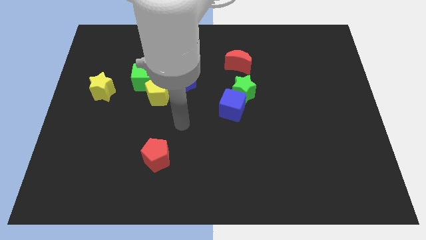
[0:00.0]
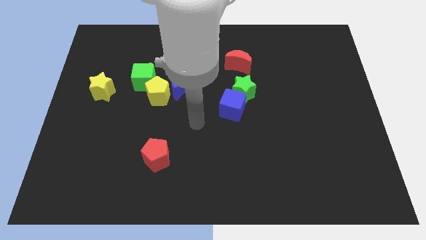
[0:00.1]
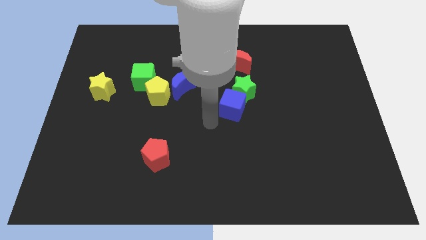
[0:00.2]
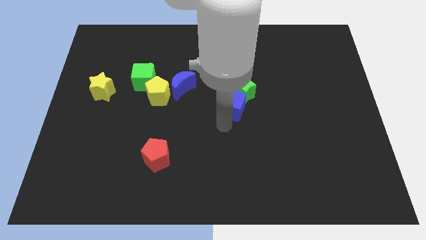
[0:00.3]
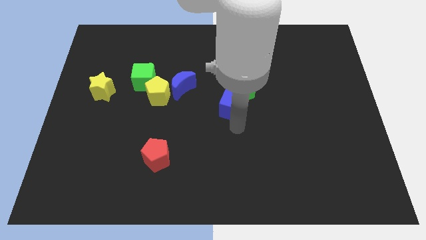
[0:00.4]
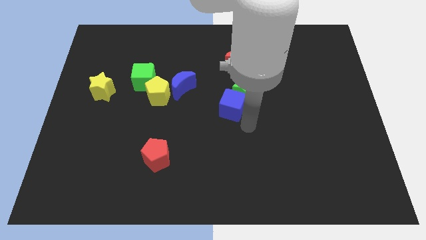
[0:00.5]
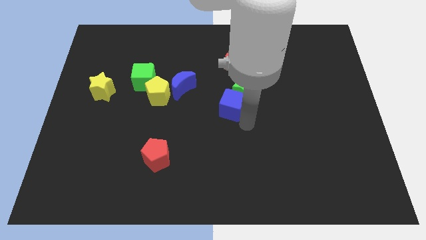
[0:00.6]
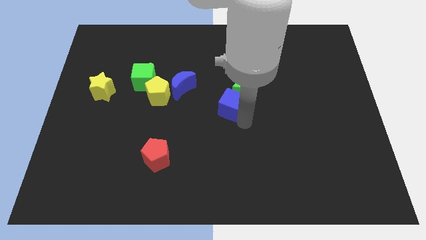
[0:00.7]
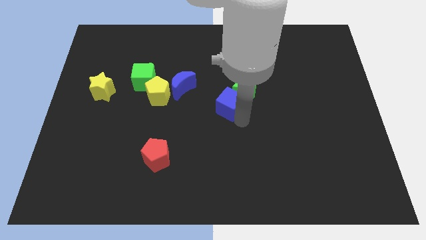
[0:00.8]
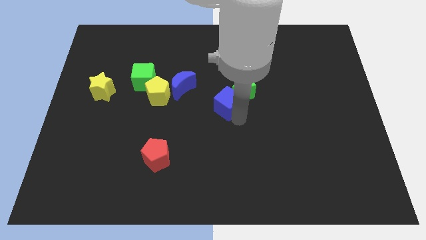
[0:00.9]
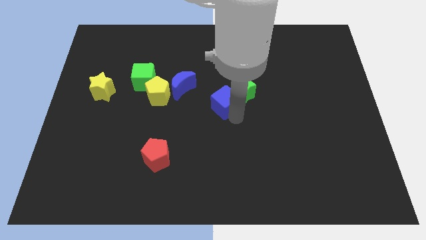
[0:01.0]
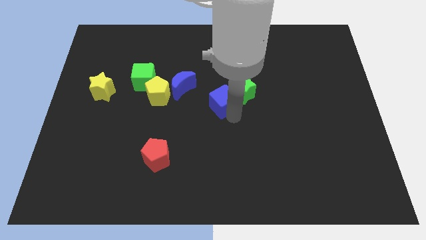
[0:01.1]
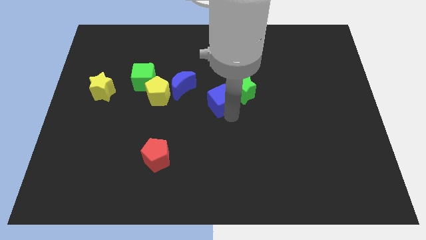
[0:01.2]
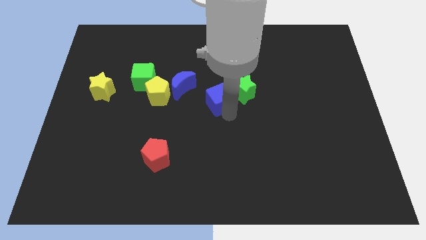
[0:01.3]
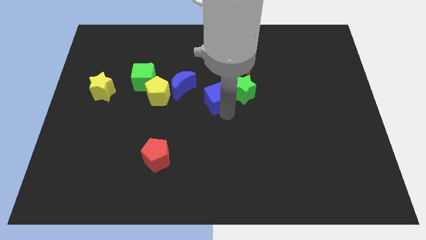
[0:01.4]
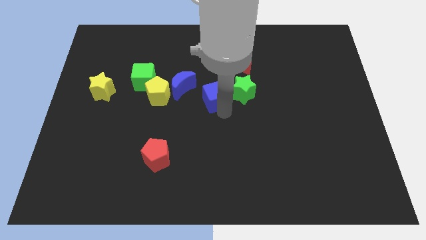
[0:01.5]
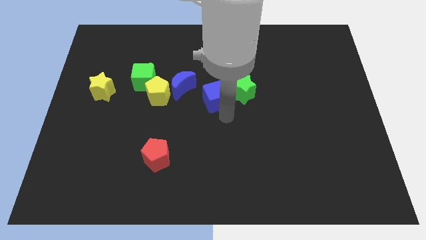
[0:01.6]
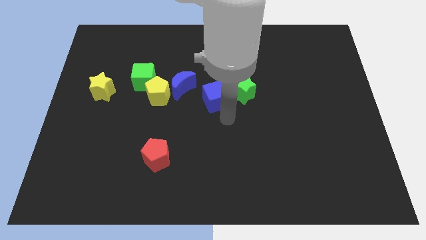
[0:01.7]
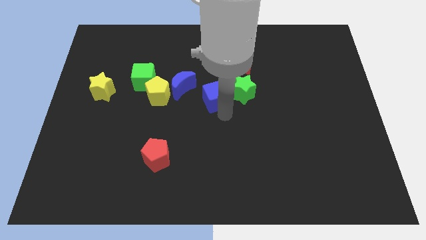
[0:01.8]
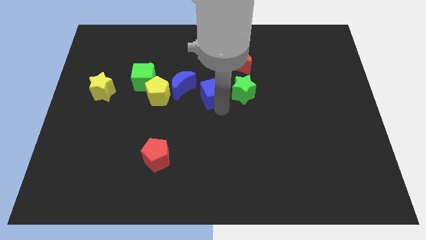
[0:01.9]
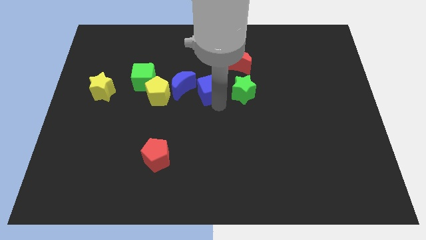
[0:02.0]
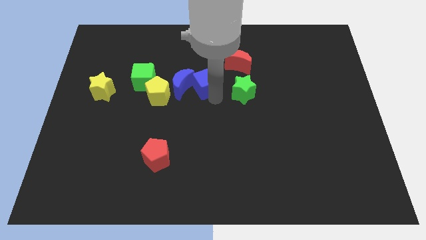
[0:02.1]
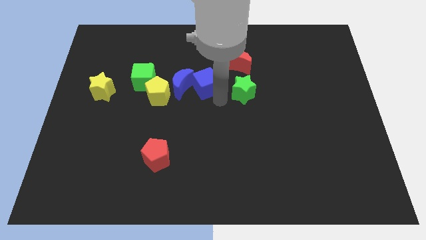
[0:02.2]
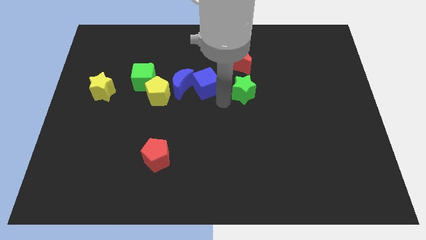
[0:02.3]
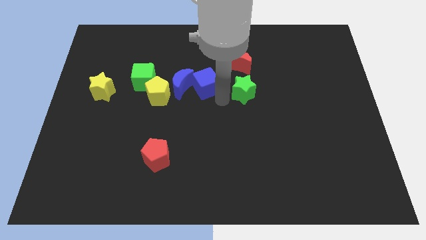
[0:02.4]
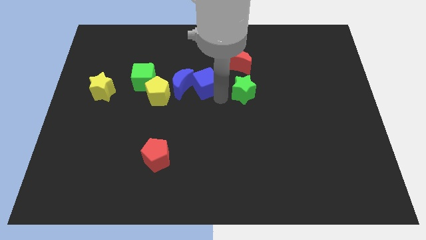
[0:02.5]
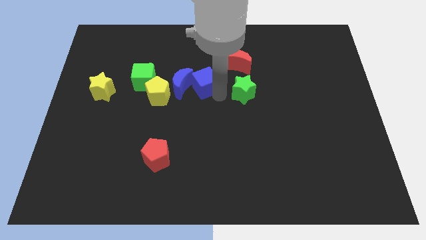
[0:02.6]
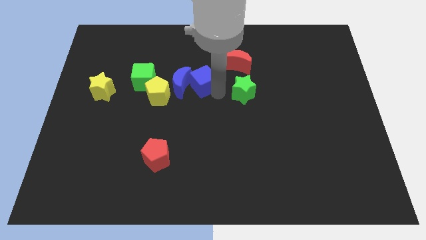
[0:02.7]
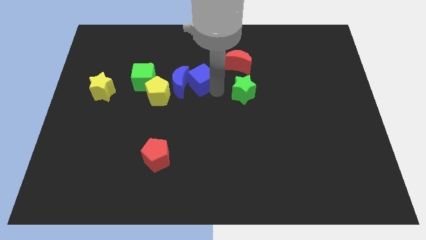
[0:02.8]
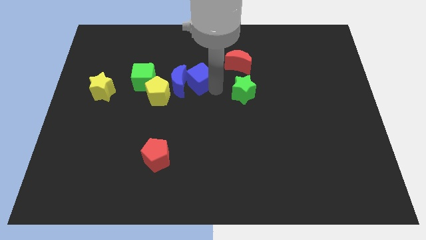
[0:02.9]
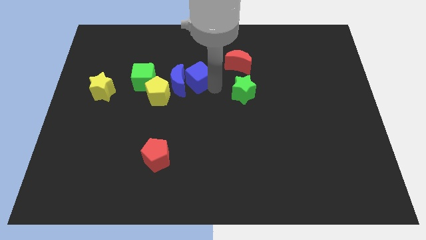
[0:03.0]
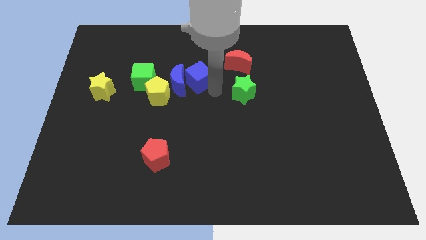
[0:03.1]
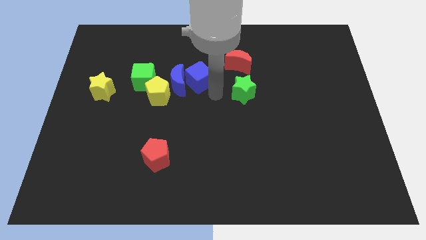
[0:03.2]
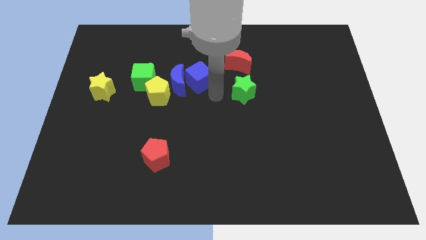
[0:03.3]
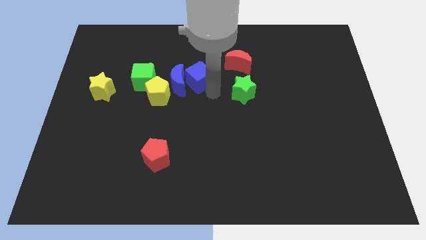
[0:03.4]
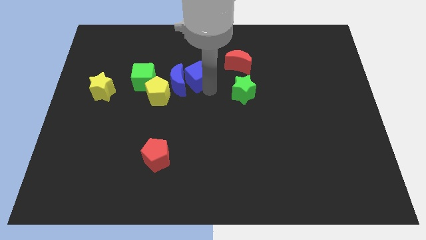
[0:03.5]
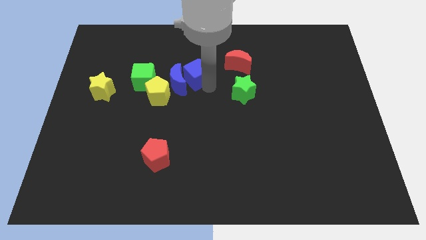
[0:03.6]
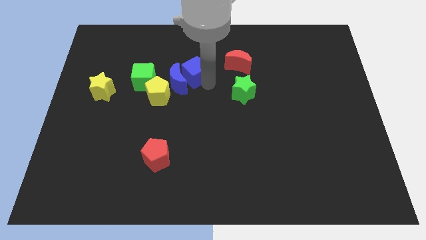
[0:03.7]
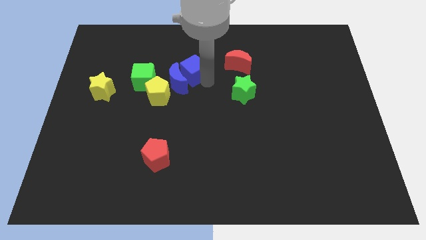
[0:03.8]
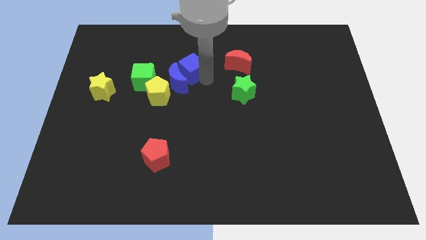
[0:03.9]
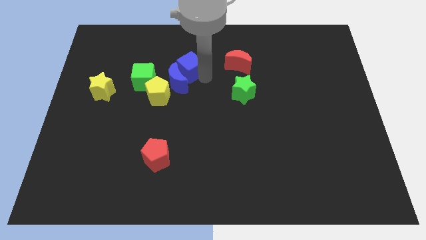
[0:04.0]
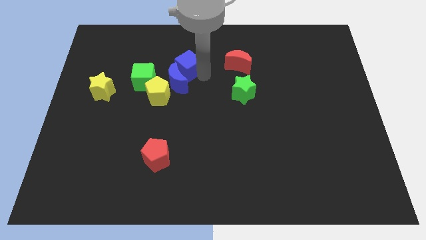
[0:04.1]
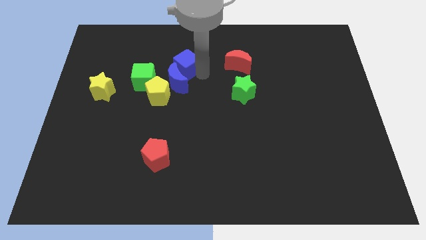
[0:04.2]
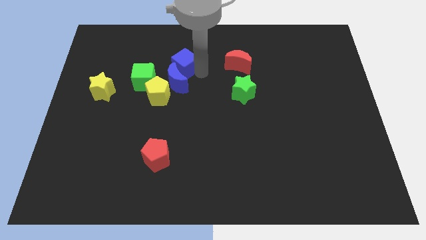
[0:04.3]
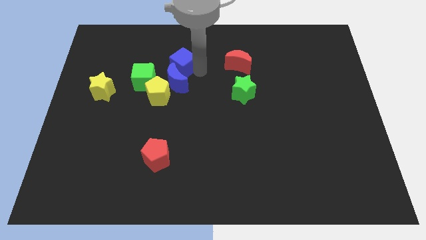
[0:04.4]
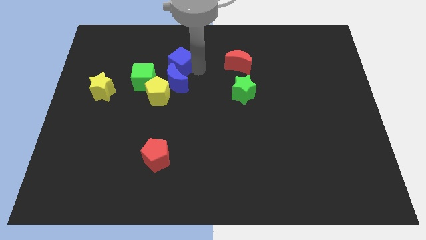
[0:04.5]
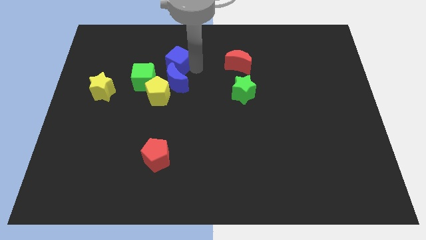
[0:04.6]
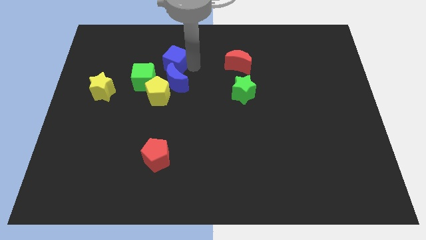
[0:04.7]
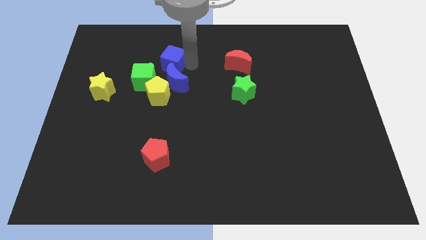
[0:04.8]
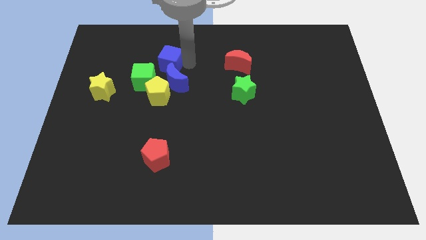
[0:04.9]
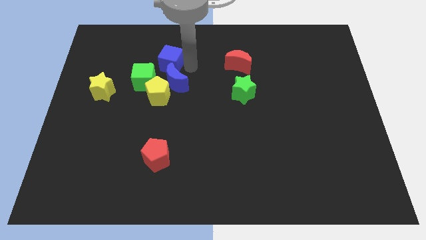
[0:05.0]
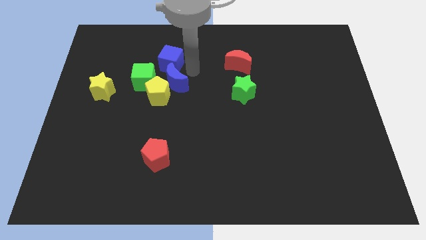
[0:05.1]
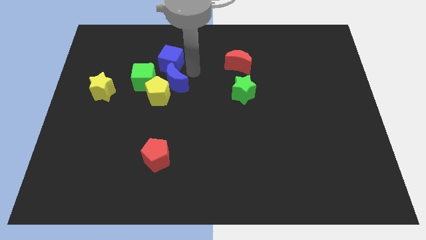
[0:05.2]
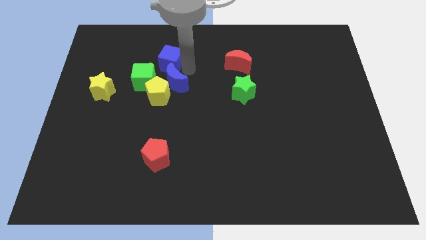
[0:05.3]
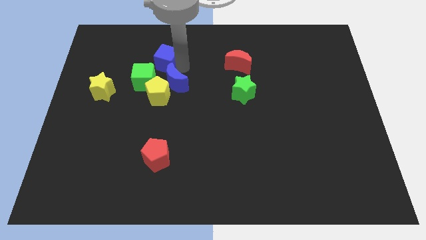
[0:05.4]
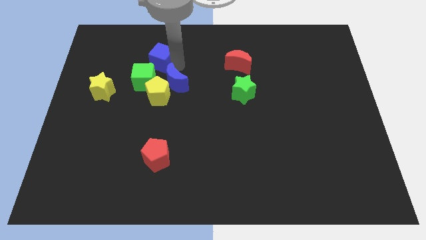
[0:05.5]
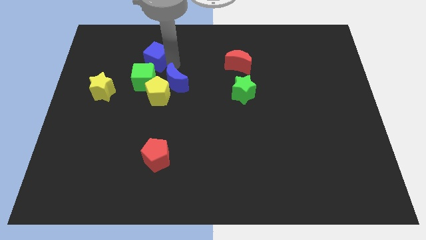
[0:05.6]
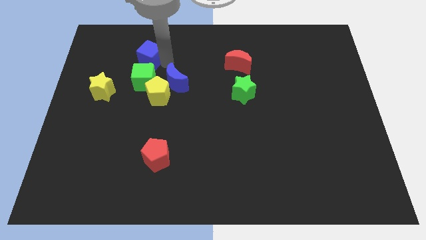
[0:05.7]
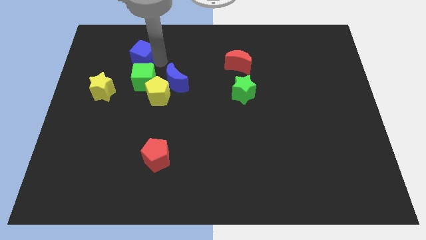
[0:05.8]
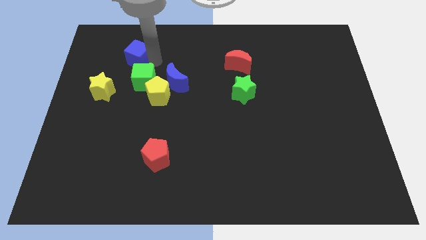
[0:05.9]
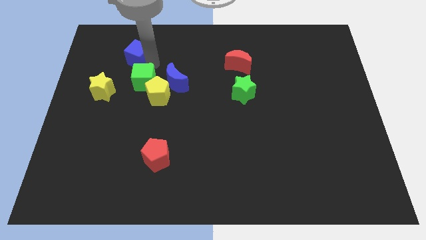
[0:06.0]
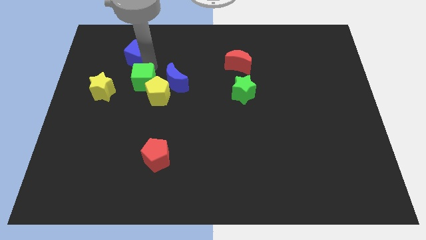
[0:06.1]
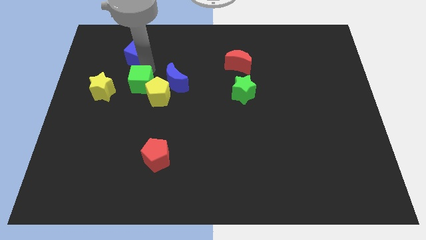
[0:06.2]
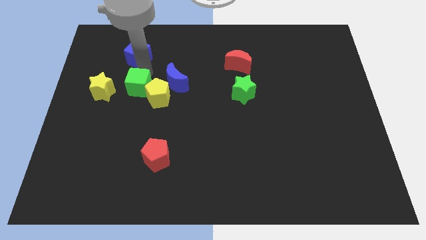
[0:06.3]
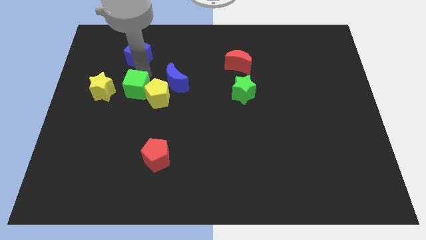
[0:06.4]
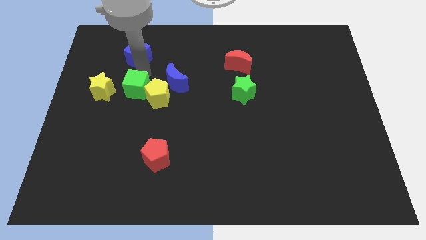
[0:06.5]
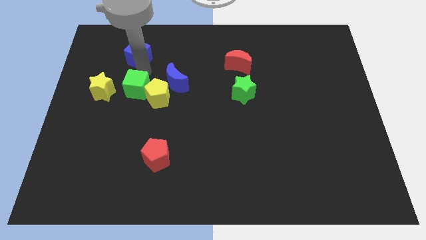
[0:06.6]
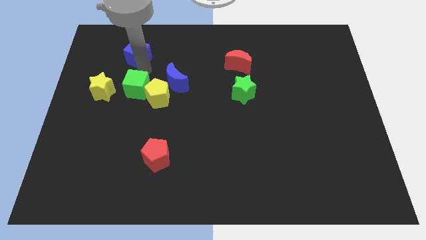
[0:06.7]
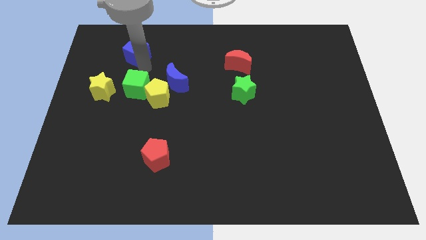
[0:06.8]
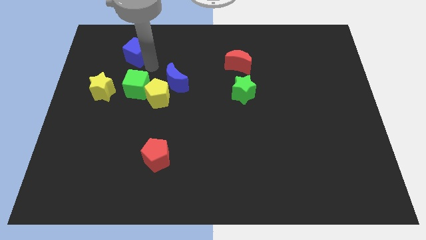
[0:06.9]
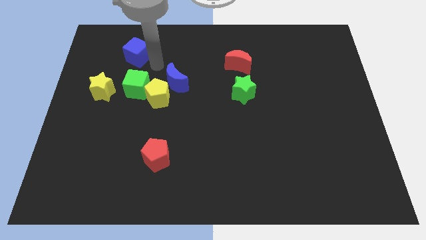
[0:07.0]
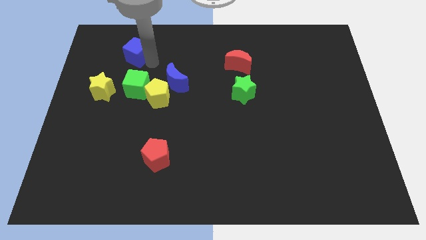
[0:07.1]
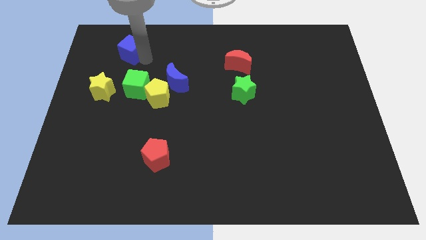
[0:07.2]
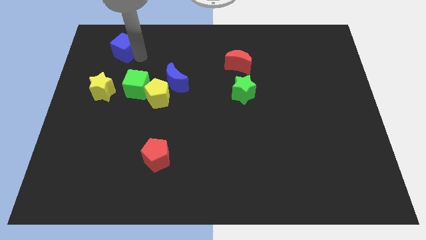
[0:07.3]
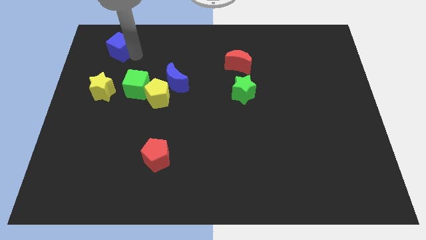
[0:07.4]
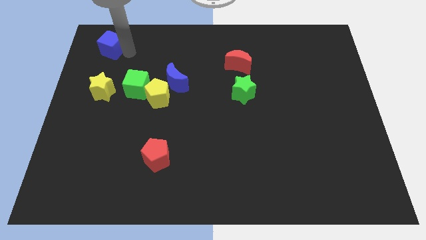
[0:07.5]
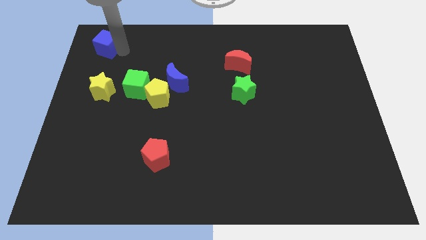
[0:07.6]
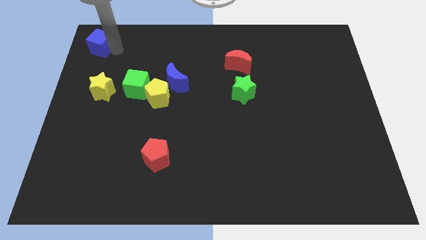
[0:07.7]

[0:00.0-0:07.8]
push the blue cube to the top left corner
